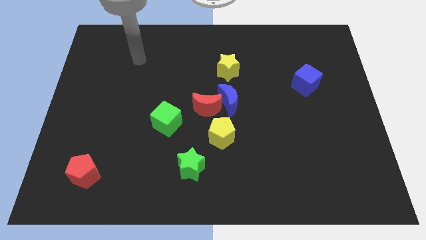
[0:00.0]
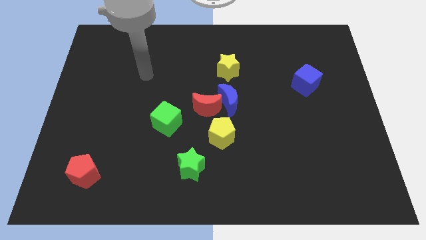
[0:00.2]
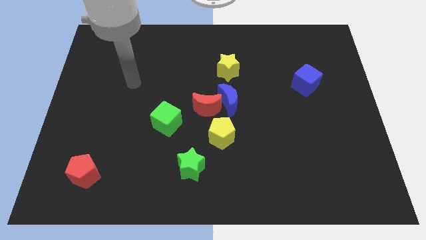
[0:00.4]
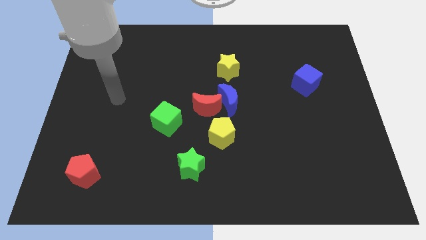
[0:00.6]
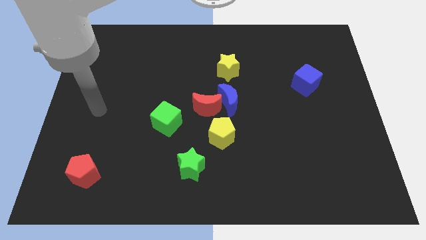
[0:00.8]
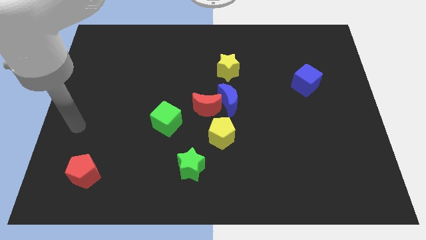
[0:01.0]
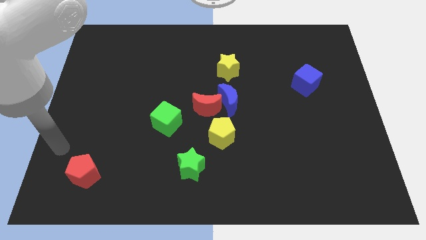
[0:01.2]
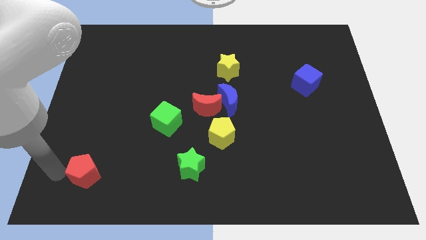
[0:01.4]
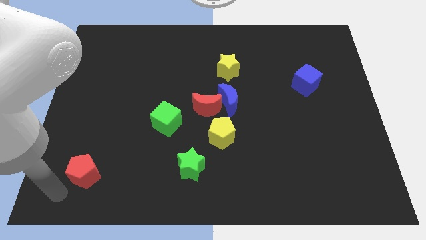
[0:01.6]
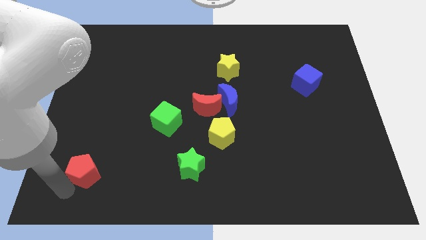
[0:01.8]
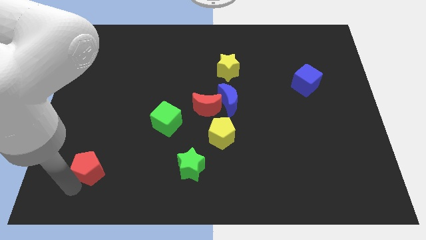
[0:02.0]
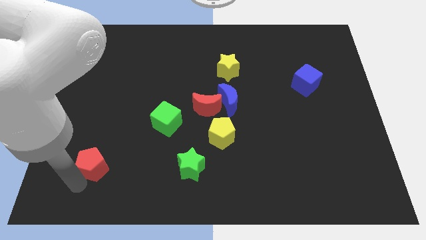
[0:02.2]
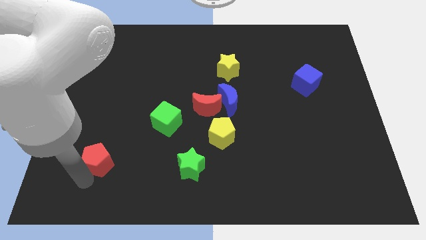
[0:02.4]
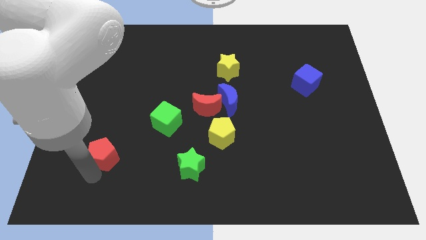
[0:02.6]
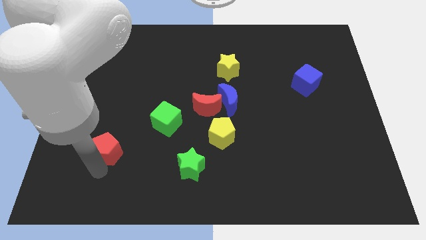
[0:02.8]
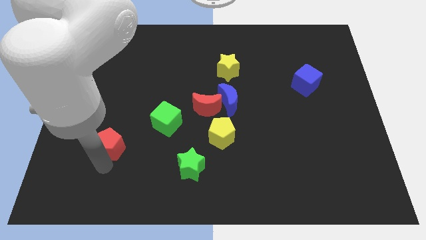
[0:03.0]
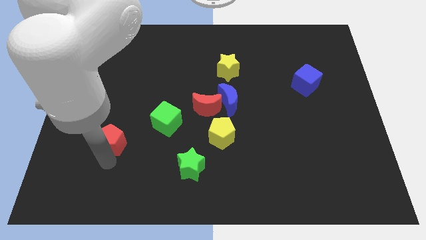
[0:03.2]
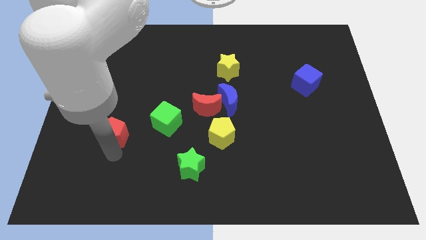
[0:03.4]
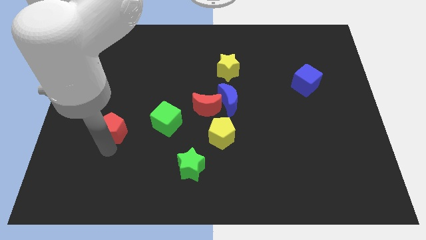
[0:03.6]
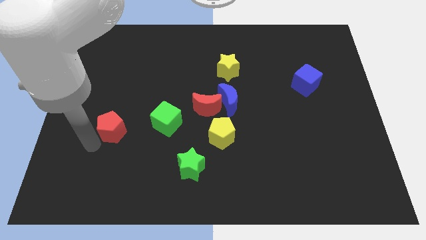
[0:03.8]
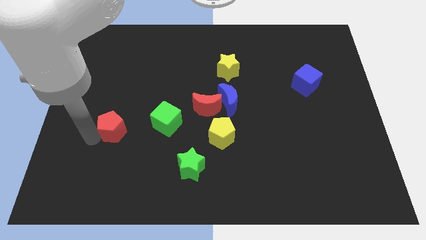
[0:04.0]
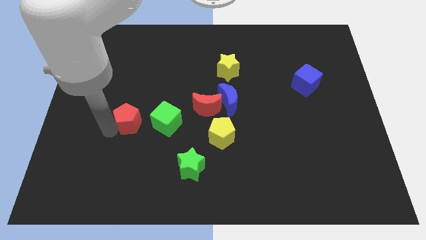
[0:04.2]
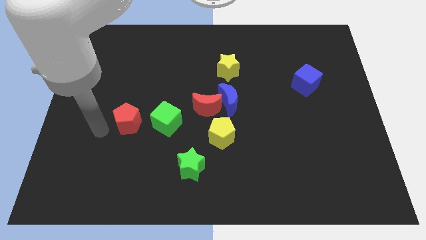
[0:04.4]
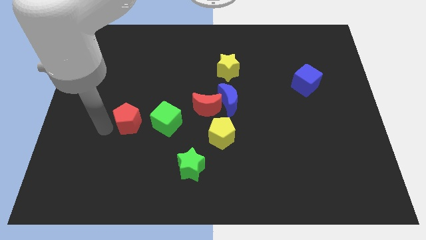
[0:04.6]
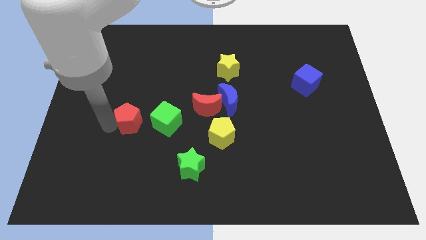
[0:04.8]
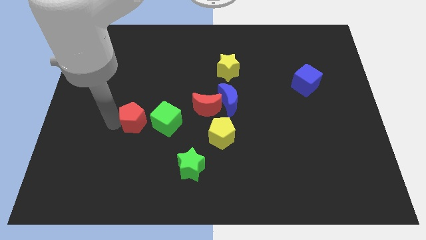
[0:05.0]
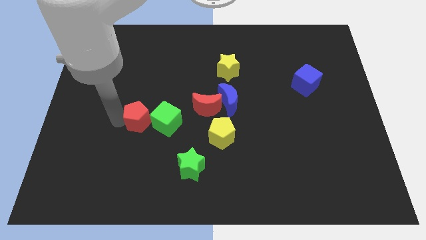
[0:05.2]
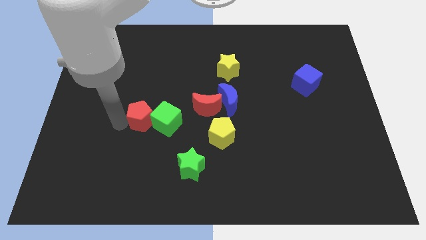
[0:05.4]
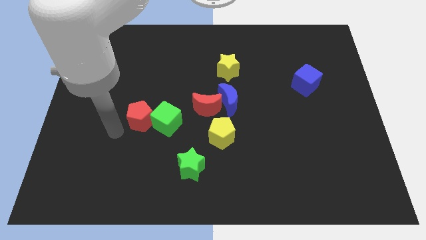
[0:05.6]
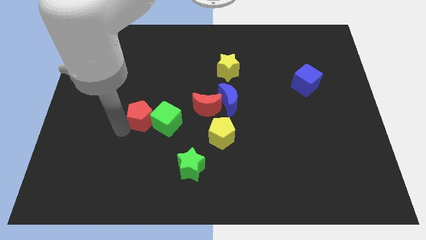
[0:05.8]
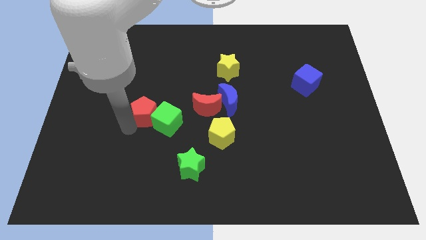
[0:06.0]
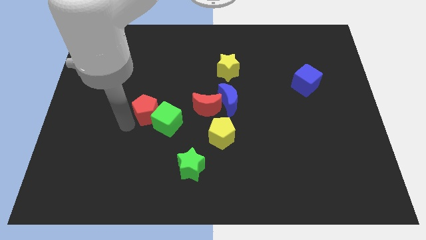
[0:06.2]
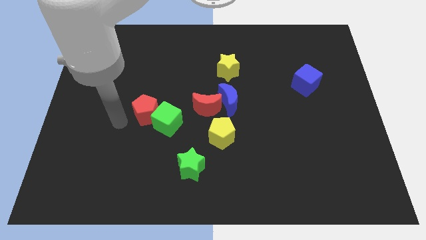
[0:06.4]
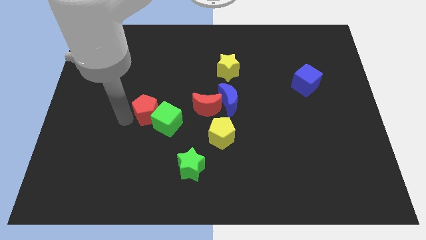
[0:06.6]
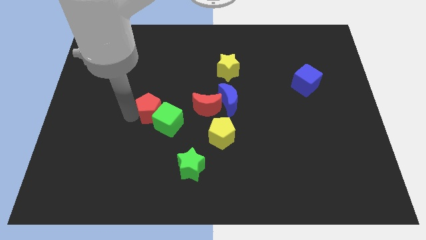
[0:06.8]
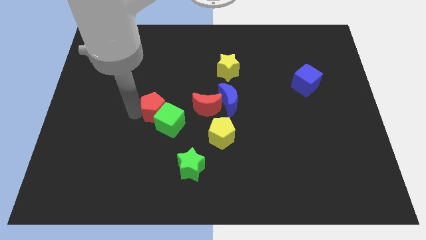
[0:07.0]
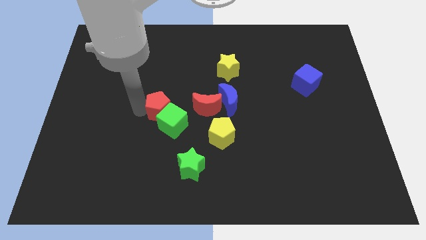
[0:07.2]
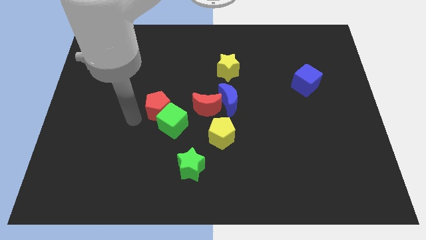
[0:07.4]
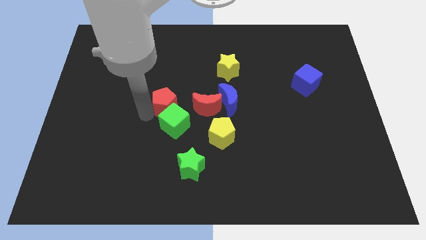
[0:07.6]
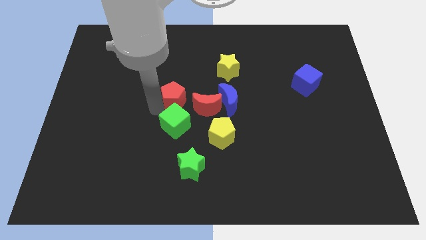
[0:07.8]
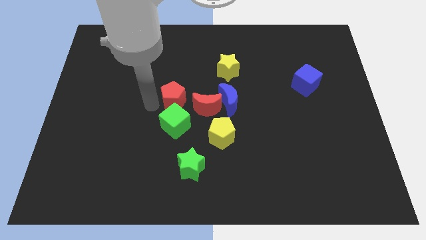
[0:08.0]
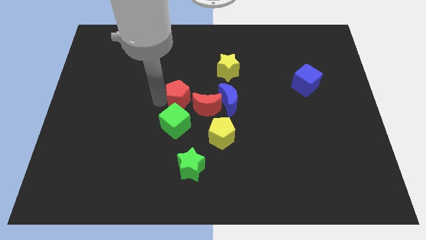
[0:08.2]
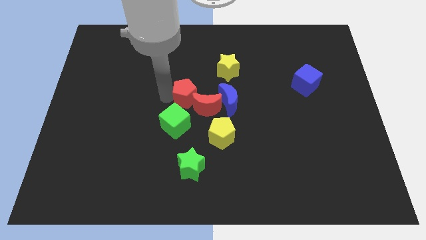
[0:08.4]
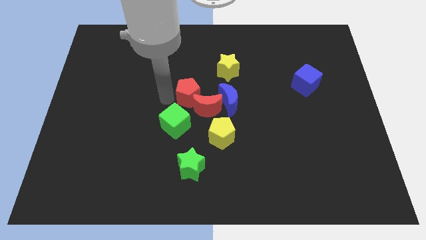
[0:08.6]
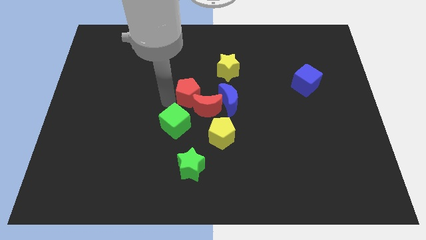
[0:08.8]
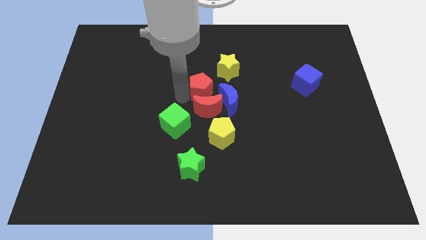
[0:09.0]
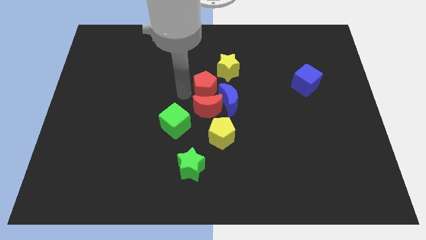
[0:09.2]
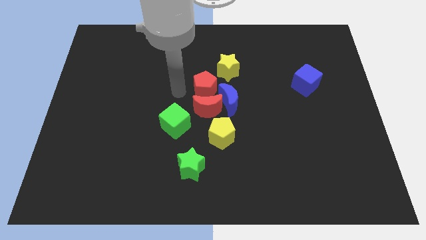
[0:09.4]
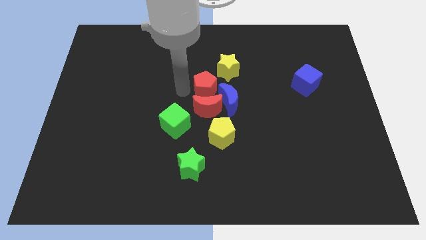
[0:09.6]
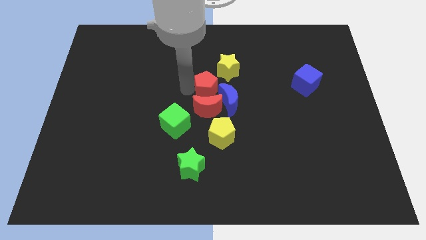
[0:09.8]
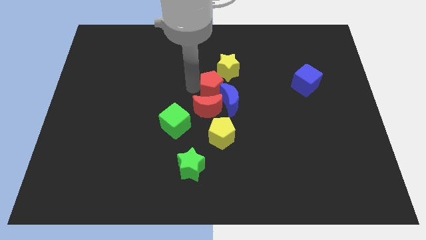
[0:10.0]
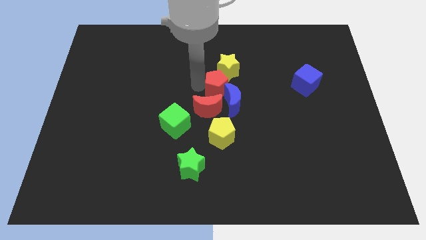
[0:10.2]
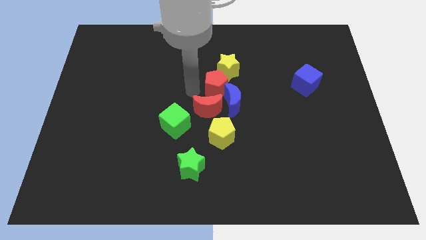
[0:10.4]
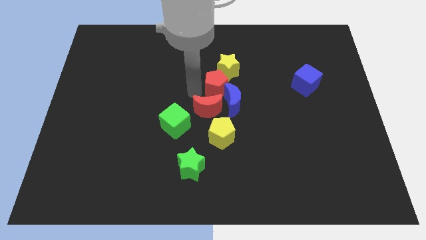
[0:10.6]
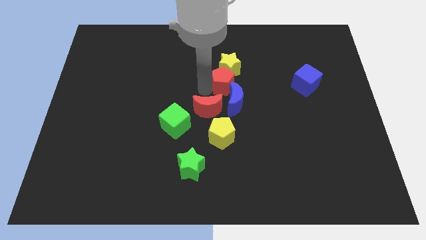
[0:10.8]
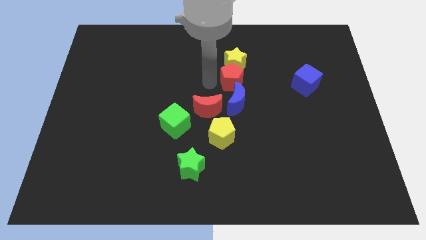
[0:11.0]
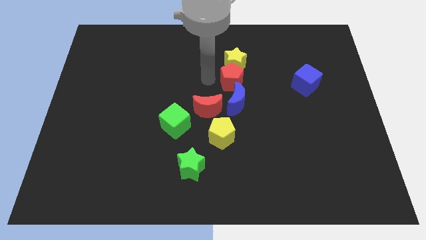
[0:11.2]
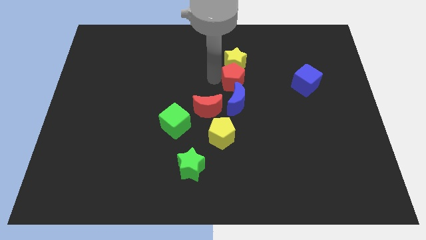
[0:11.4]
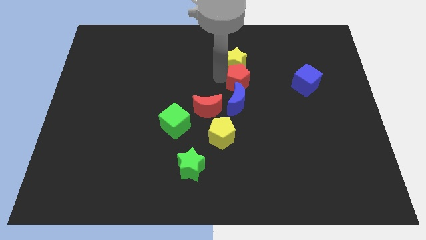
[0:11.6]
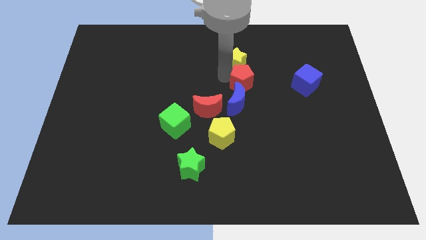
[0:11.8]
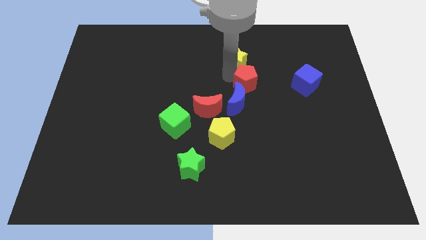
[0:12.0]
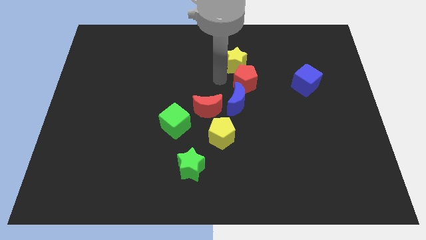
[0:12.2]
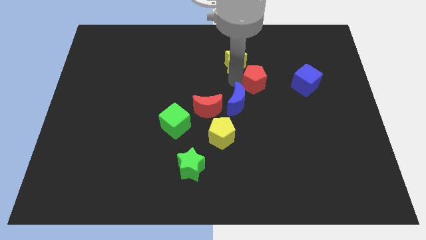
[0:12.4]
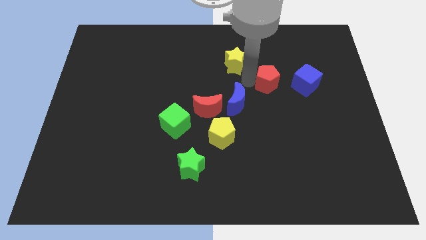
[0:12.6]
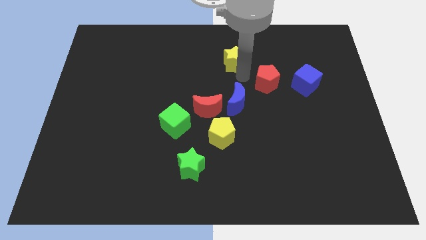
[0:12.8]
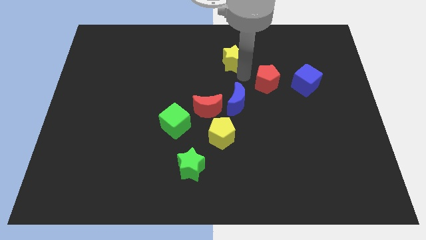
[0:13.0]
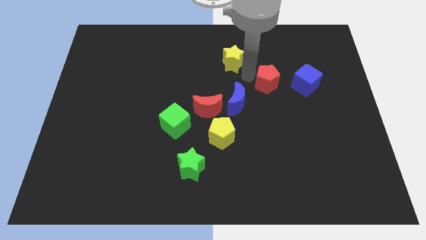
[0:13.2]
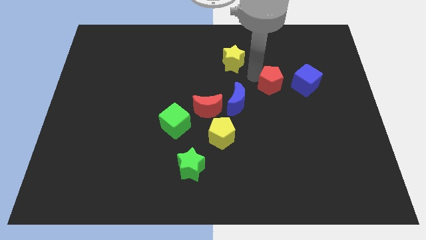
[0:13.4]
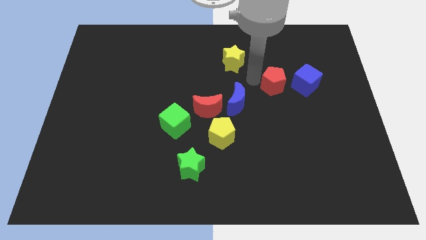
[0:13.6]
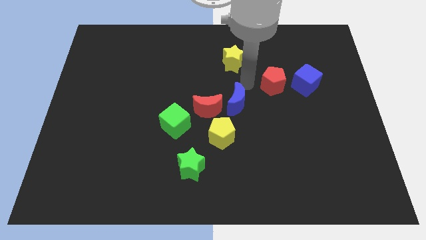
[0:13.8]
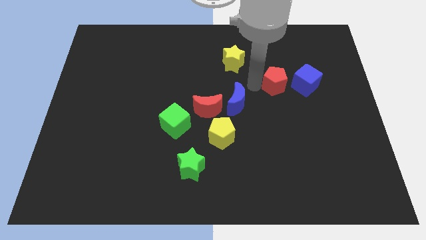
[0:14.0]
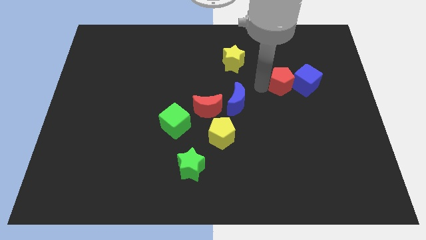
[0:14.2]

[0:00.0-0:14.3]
push the red pentagon to the blue cube

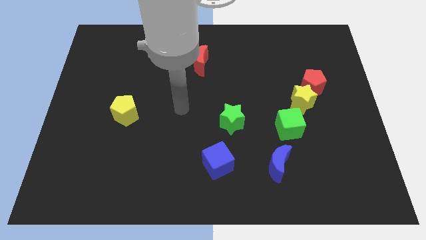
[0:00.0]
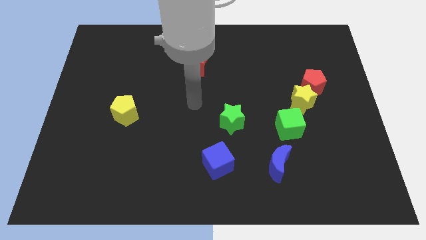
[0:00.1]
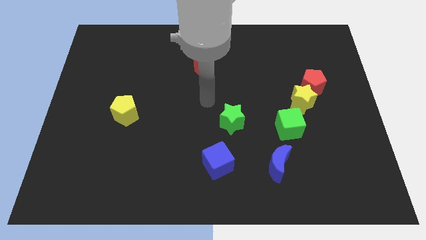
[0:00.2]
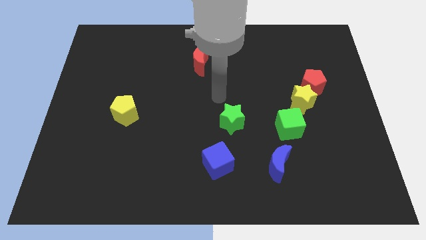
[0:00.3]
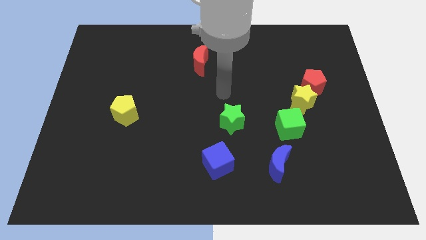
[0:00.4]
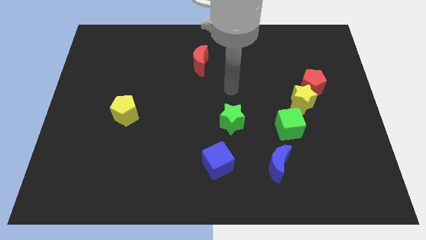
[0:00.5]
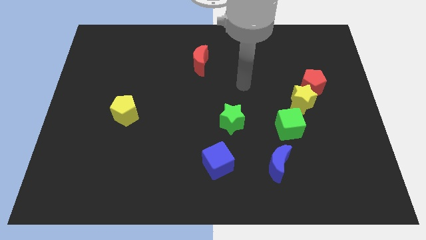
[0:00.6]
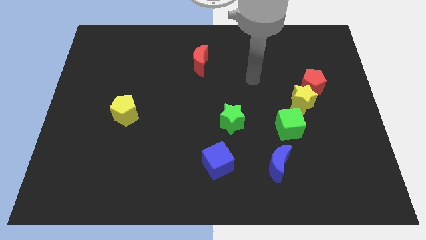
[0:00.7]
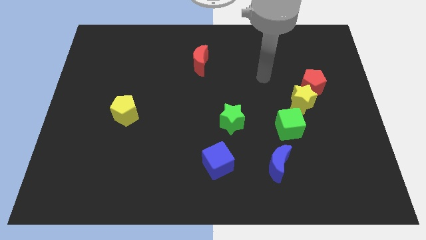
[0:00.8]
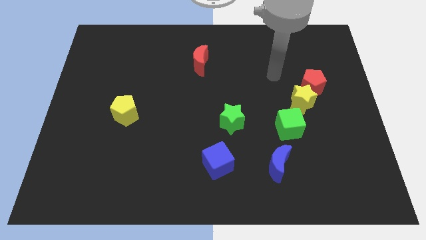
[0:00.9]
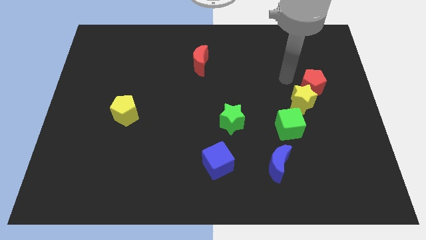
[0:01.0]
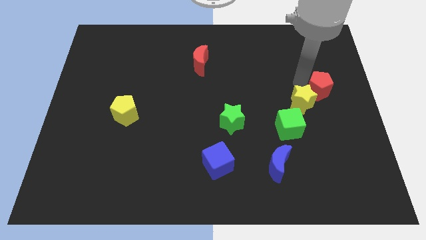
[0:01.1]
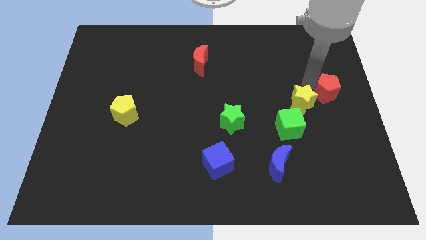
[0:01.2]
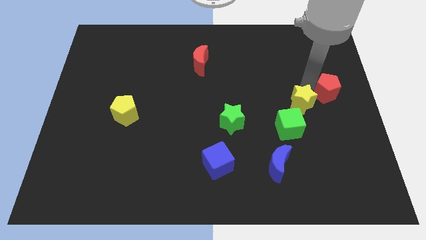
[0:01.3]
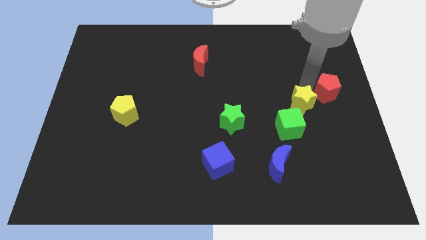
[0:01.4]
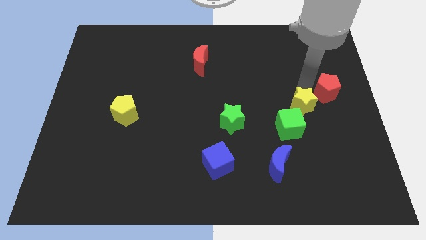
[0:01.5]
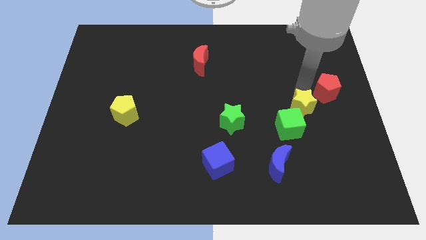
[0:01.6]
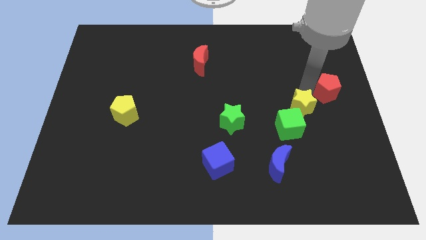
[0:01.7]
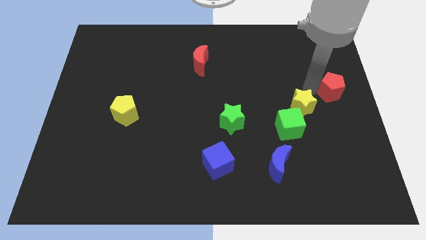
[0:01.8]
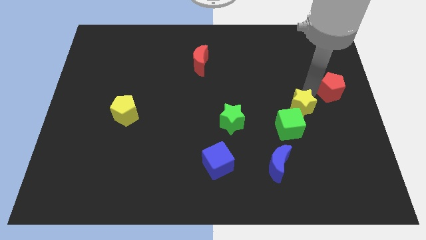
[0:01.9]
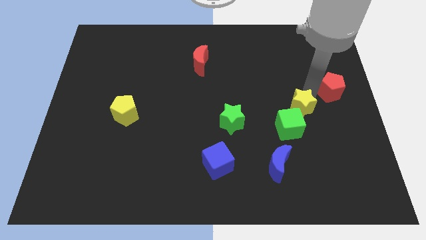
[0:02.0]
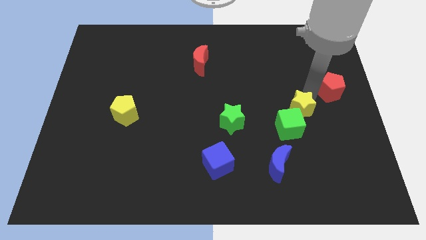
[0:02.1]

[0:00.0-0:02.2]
move the yellow star close to the green cube
